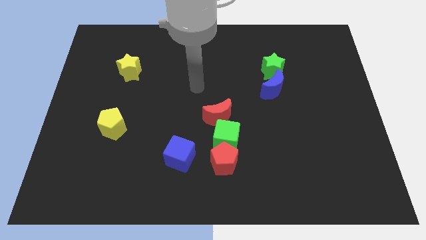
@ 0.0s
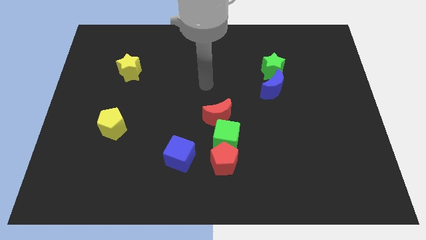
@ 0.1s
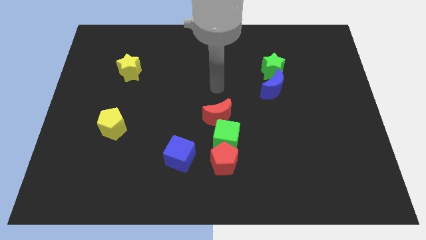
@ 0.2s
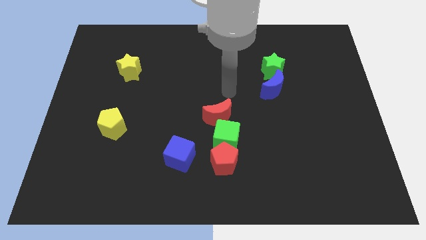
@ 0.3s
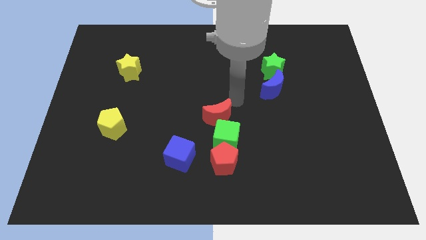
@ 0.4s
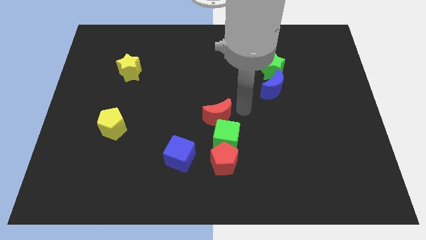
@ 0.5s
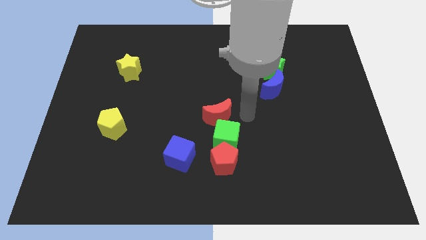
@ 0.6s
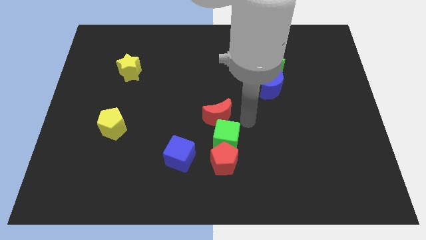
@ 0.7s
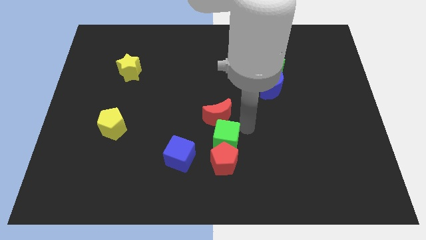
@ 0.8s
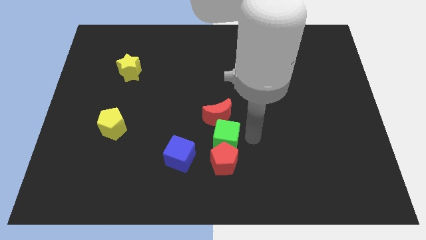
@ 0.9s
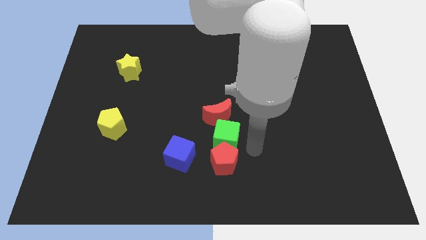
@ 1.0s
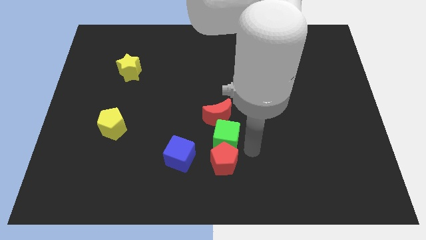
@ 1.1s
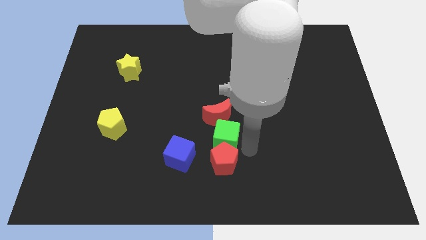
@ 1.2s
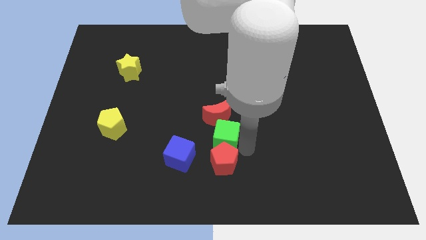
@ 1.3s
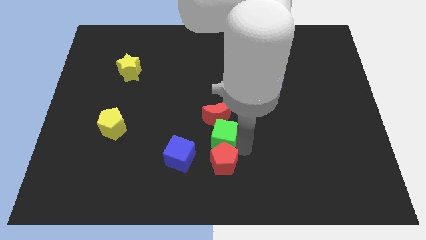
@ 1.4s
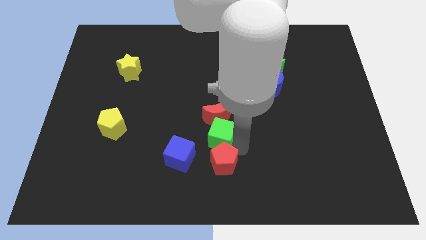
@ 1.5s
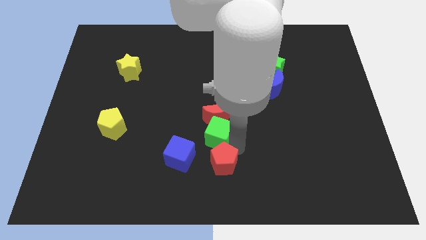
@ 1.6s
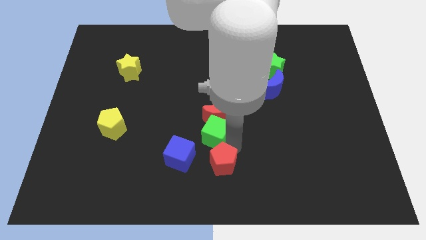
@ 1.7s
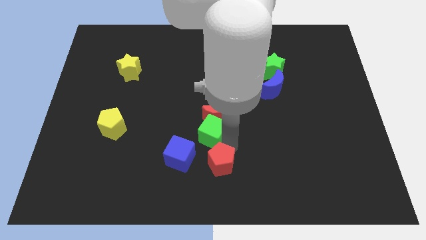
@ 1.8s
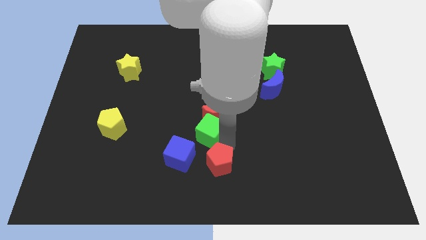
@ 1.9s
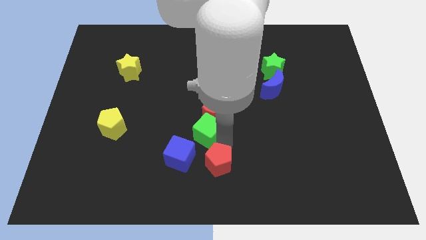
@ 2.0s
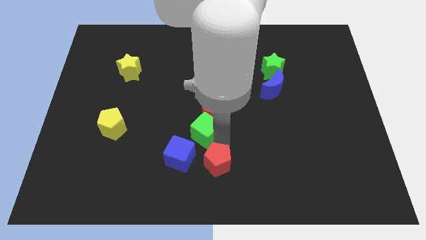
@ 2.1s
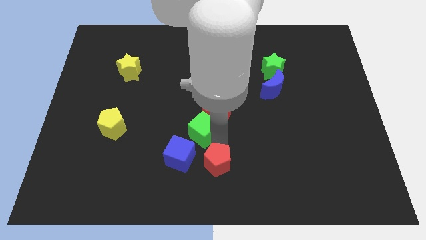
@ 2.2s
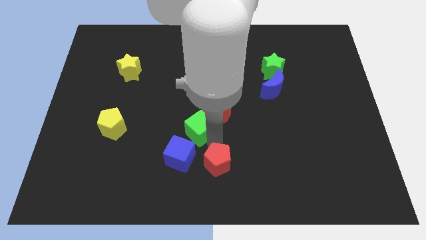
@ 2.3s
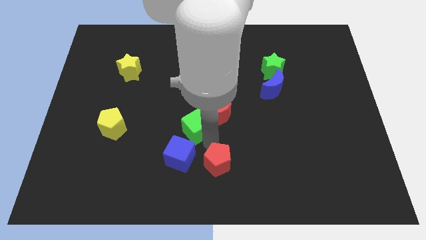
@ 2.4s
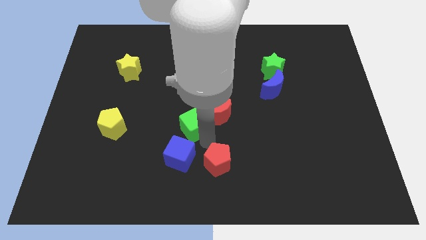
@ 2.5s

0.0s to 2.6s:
push the green cube upwards and then left a little

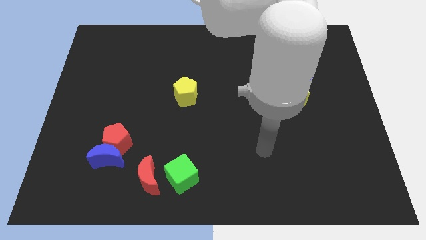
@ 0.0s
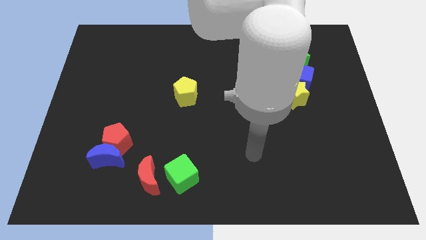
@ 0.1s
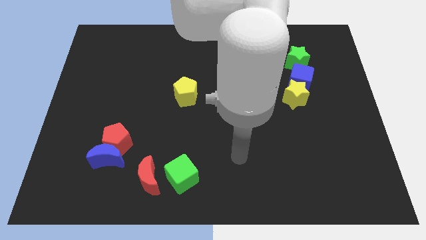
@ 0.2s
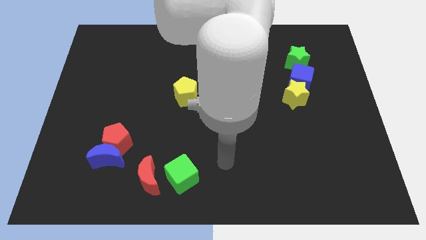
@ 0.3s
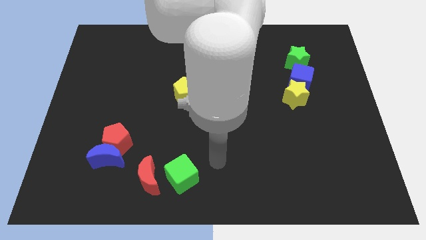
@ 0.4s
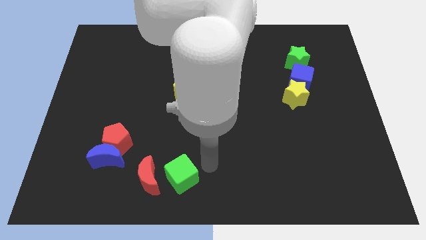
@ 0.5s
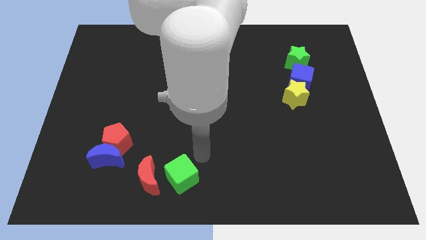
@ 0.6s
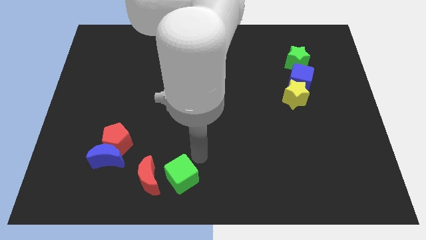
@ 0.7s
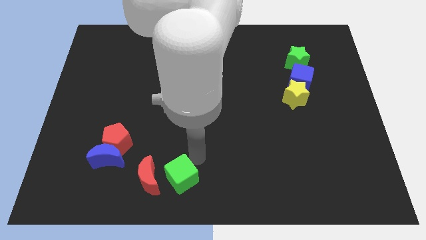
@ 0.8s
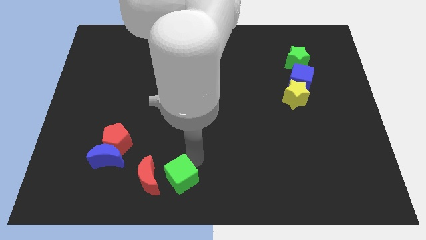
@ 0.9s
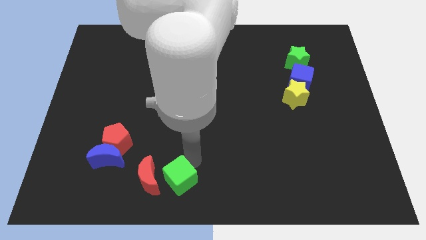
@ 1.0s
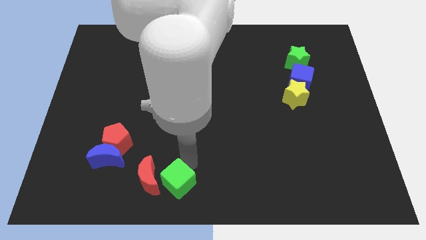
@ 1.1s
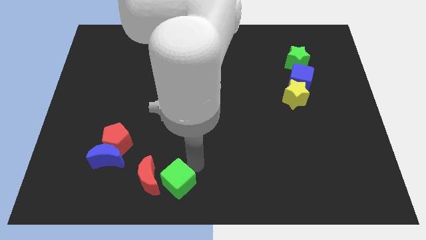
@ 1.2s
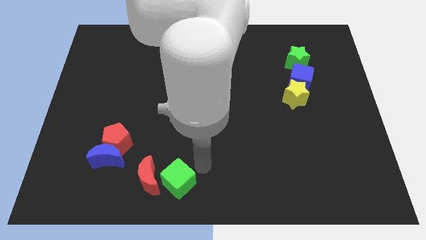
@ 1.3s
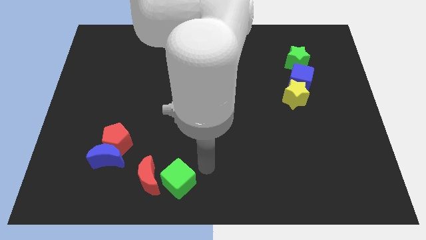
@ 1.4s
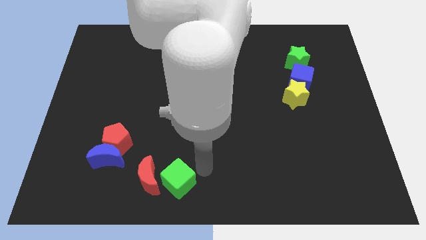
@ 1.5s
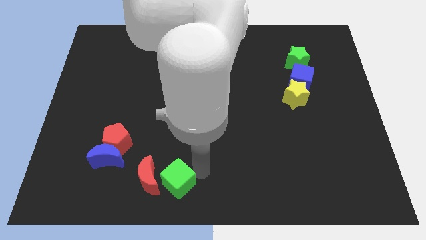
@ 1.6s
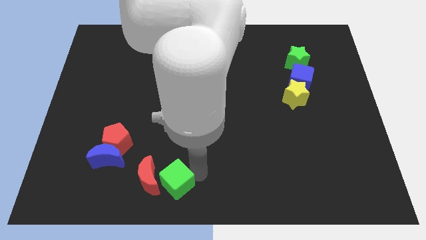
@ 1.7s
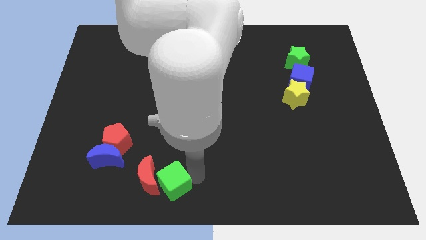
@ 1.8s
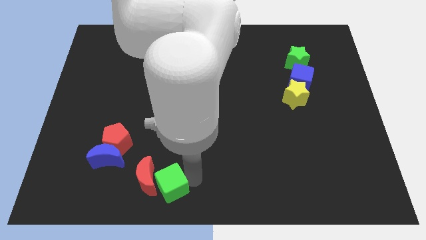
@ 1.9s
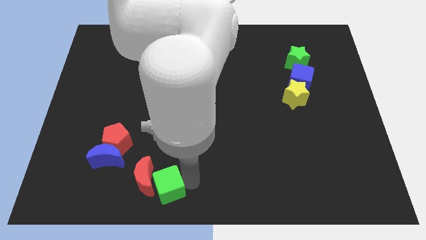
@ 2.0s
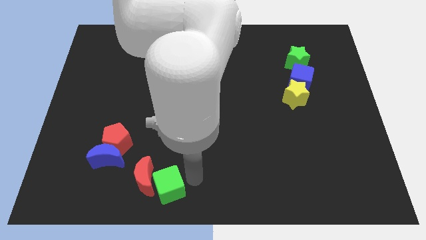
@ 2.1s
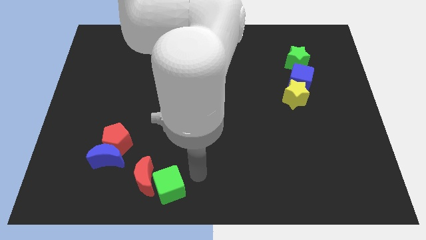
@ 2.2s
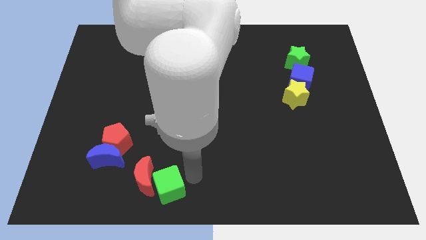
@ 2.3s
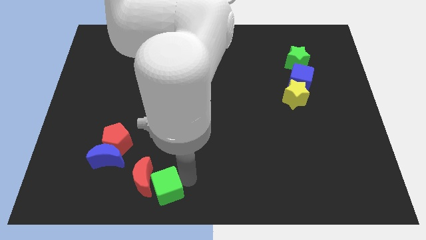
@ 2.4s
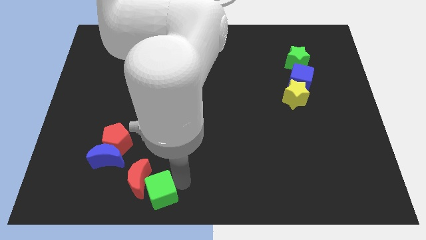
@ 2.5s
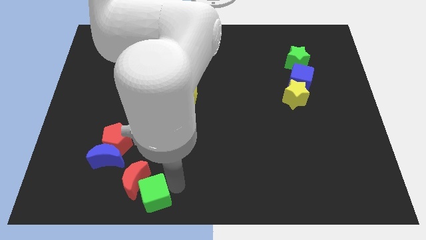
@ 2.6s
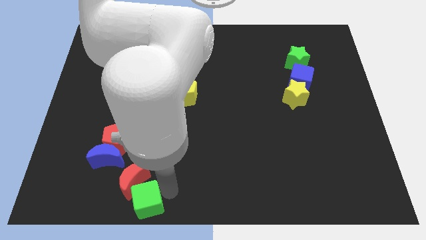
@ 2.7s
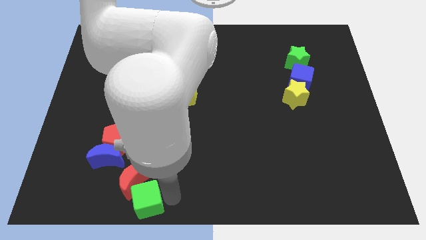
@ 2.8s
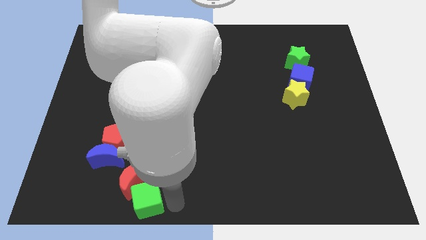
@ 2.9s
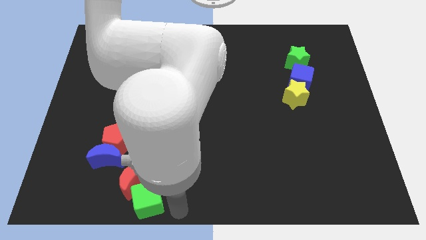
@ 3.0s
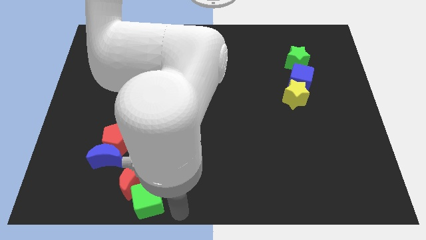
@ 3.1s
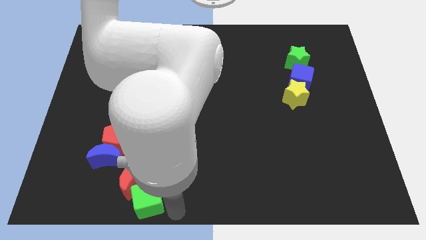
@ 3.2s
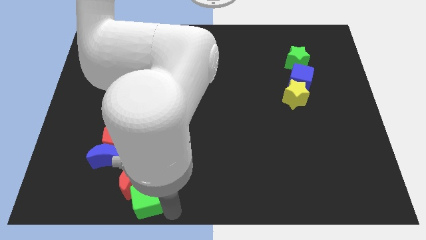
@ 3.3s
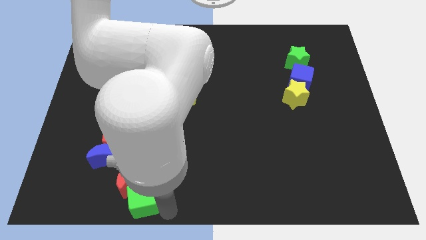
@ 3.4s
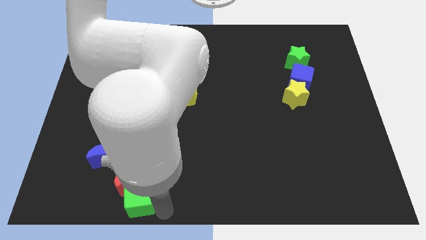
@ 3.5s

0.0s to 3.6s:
push the green cube a bit to the left

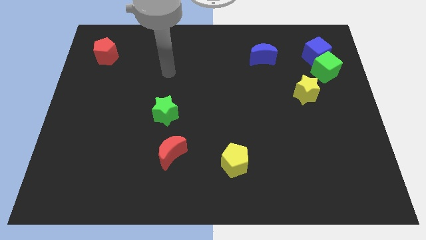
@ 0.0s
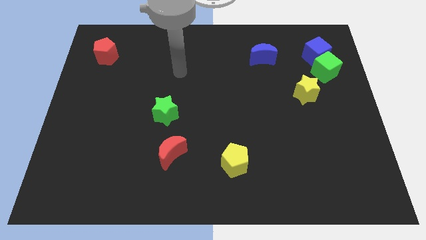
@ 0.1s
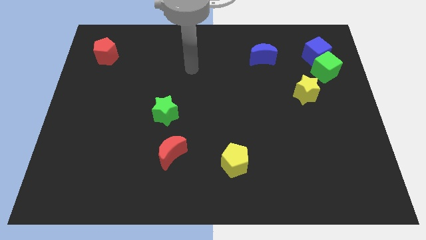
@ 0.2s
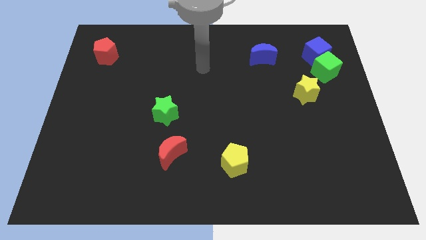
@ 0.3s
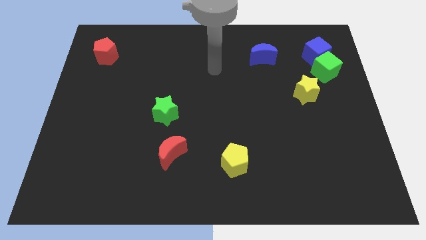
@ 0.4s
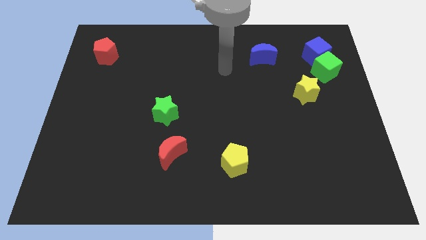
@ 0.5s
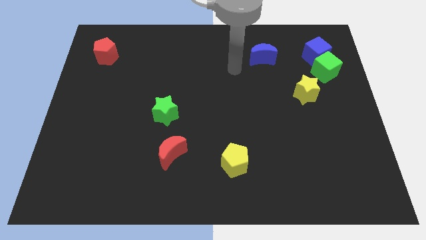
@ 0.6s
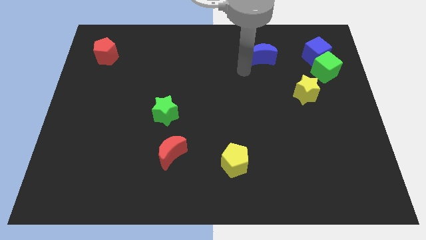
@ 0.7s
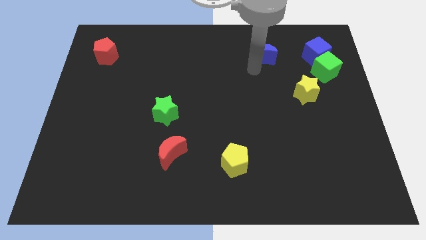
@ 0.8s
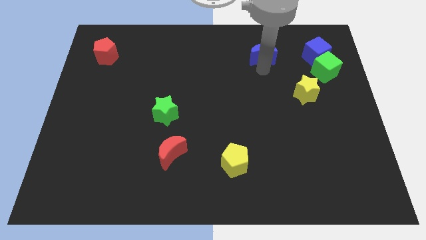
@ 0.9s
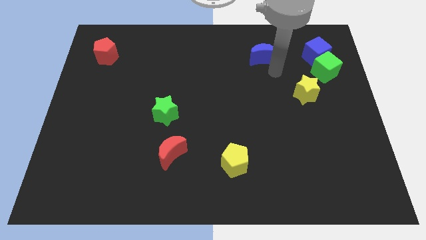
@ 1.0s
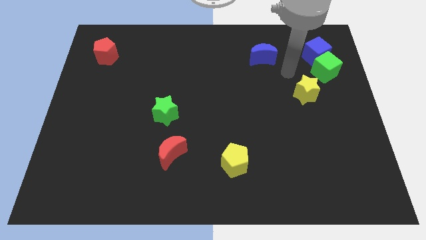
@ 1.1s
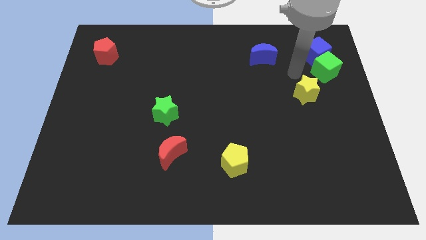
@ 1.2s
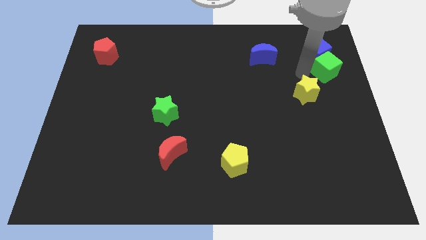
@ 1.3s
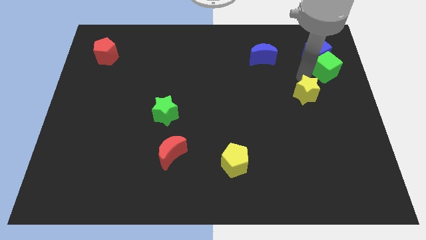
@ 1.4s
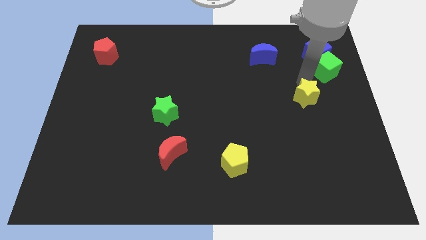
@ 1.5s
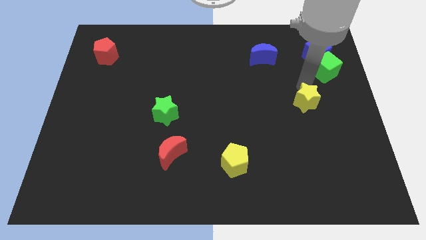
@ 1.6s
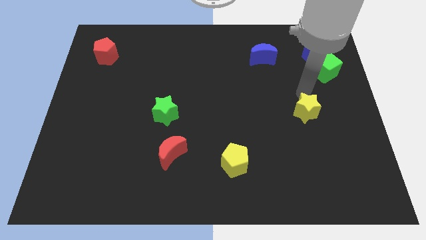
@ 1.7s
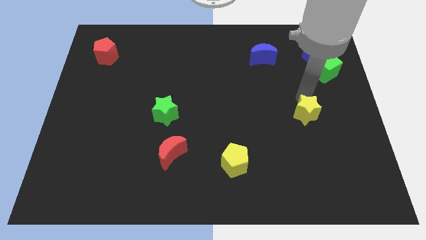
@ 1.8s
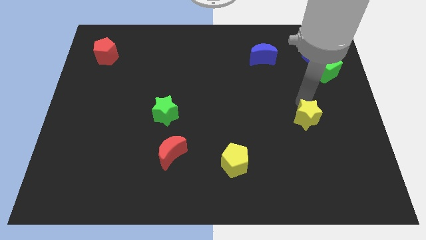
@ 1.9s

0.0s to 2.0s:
move the yellow star down a little

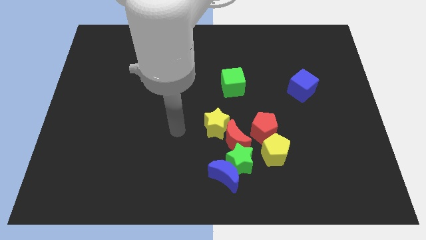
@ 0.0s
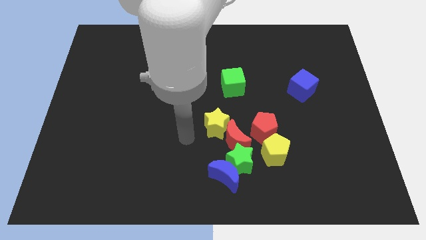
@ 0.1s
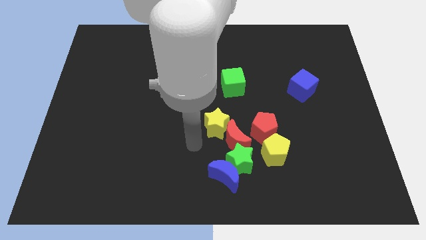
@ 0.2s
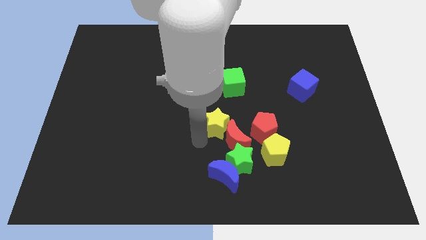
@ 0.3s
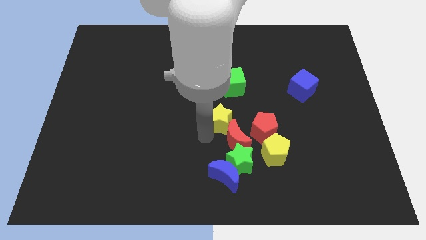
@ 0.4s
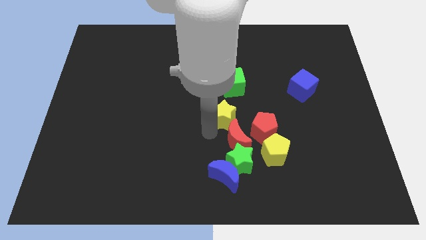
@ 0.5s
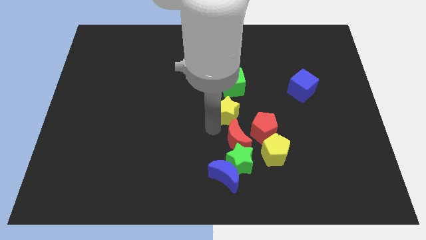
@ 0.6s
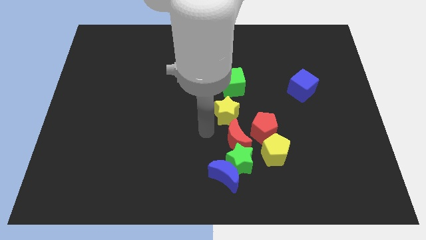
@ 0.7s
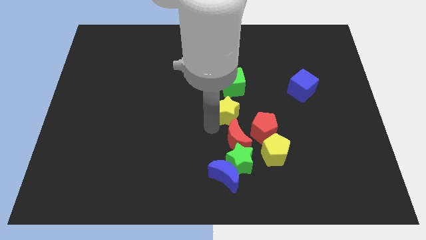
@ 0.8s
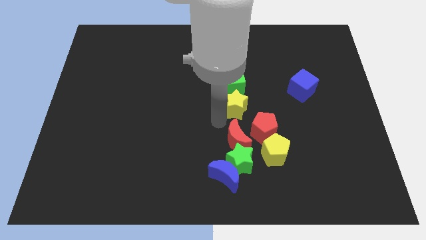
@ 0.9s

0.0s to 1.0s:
move the yellow star diagonally upwards and right slightly
